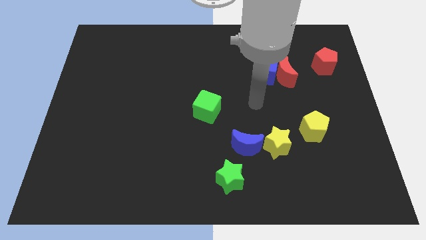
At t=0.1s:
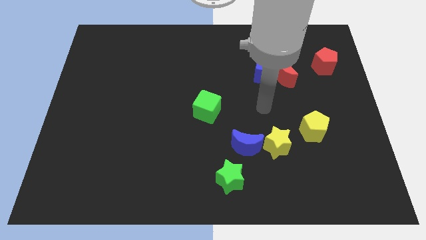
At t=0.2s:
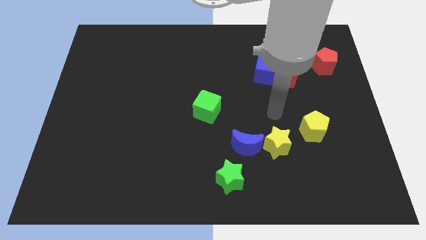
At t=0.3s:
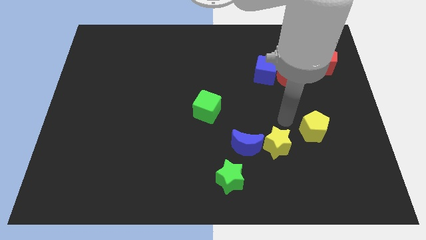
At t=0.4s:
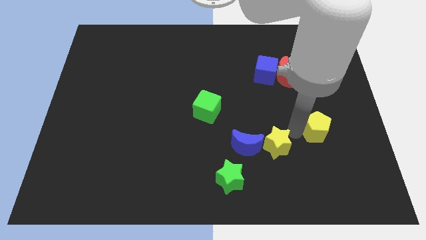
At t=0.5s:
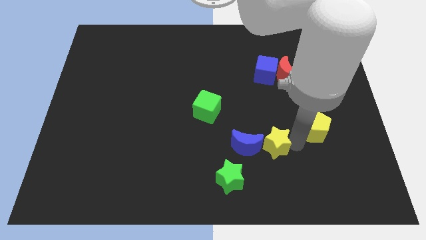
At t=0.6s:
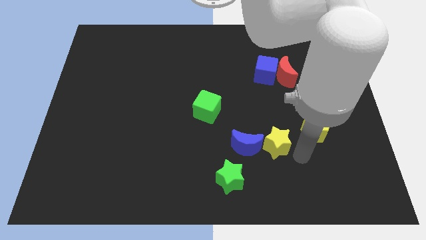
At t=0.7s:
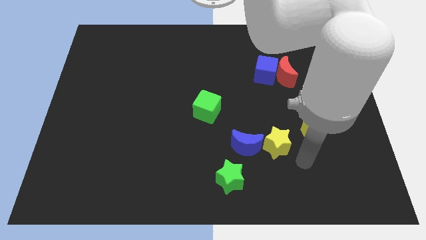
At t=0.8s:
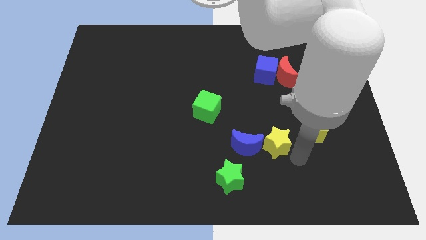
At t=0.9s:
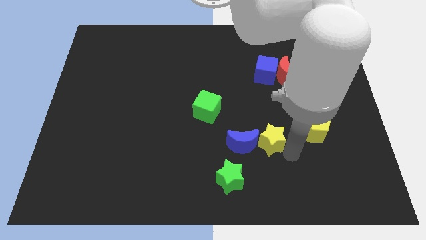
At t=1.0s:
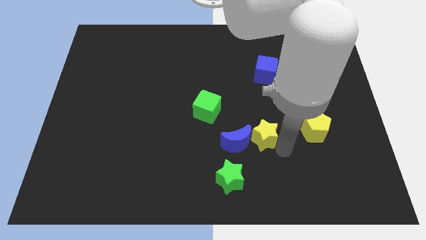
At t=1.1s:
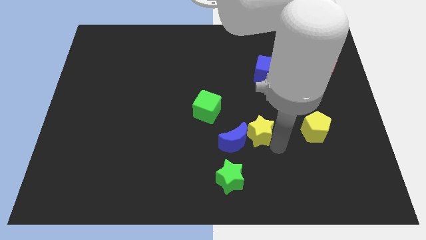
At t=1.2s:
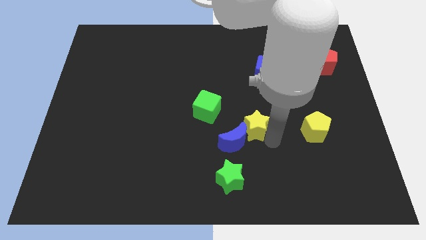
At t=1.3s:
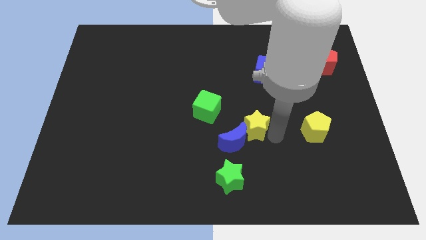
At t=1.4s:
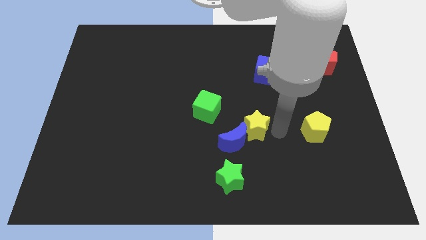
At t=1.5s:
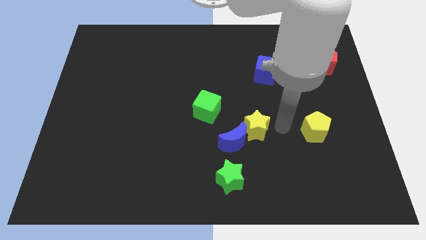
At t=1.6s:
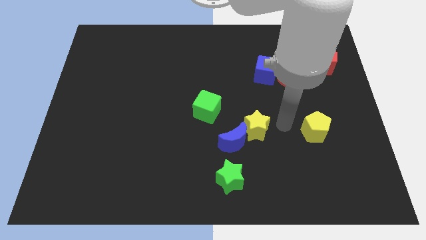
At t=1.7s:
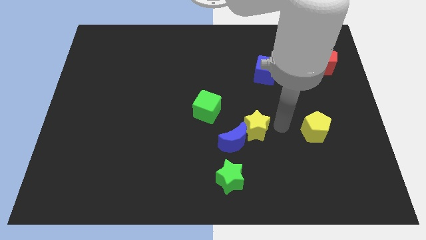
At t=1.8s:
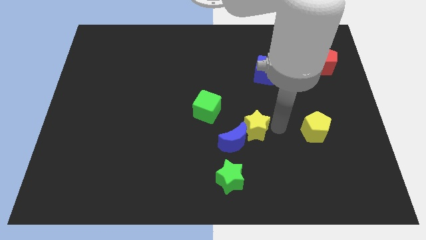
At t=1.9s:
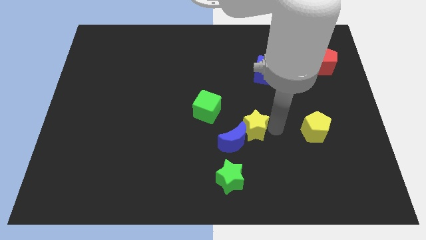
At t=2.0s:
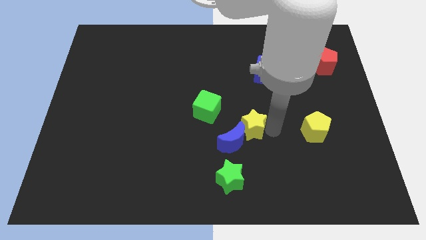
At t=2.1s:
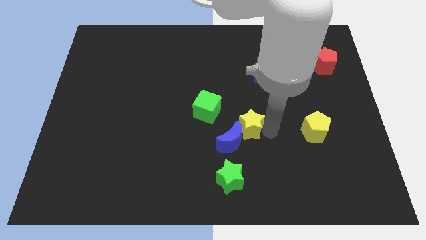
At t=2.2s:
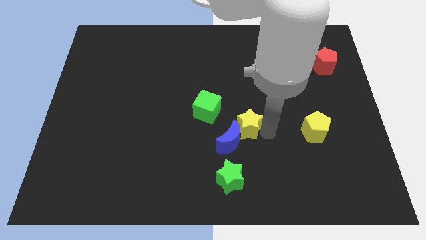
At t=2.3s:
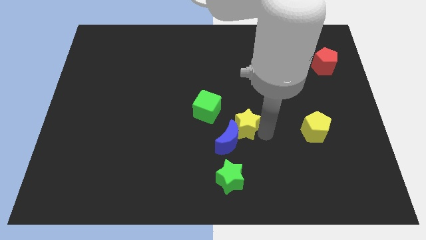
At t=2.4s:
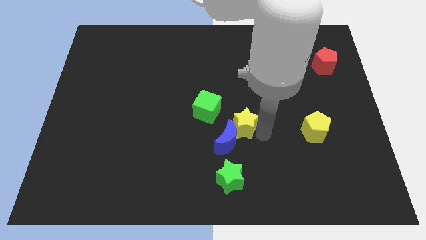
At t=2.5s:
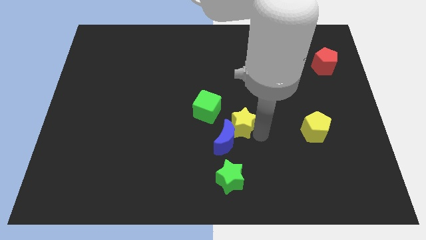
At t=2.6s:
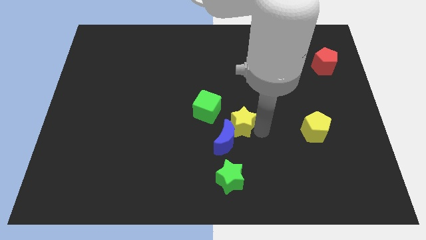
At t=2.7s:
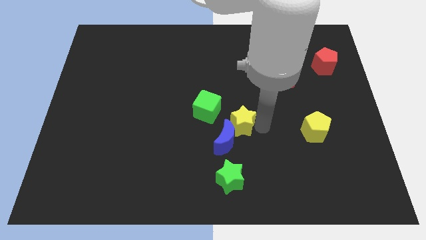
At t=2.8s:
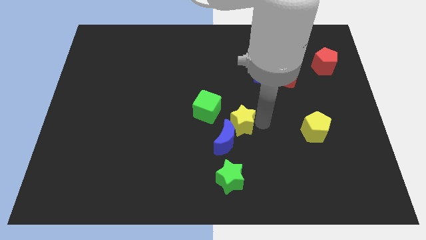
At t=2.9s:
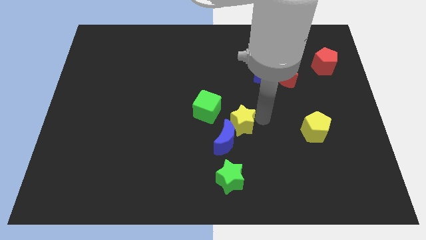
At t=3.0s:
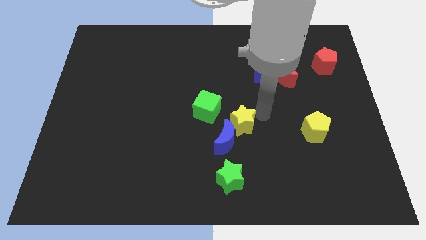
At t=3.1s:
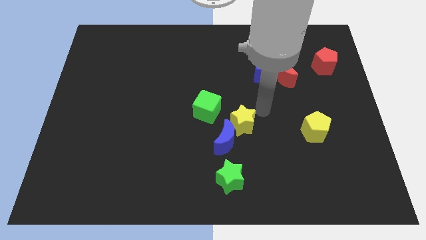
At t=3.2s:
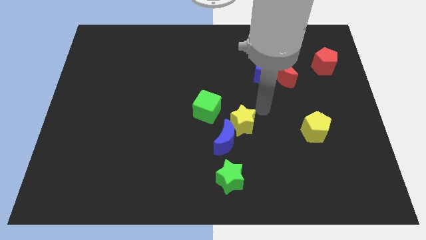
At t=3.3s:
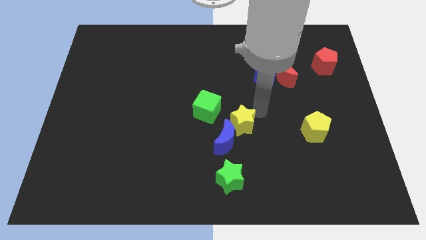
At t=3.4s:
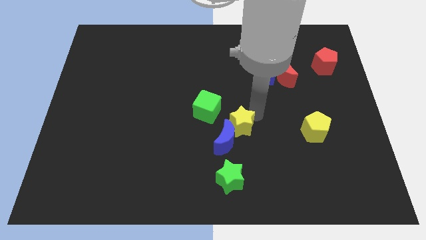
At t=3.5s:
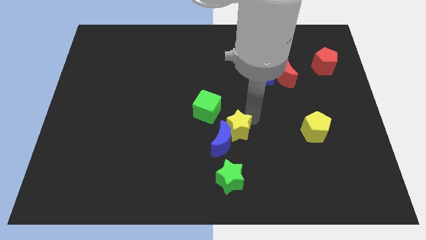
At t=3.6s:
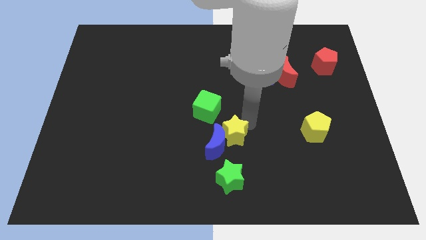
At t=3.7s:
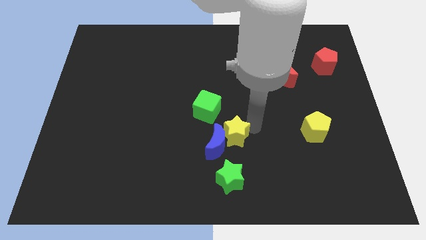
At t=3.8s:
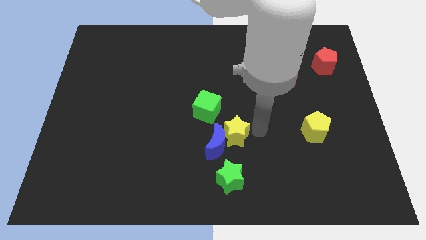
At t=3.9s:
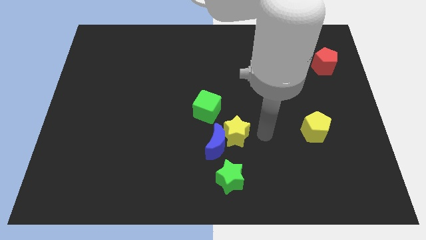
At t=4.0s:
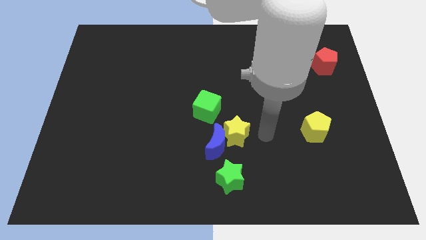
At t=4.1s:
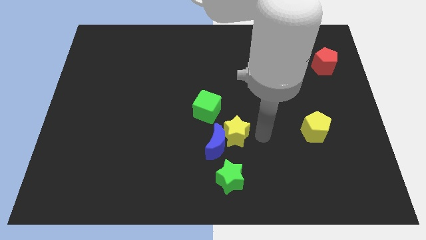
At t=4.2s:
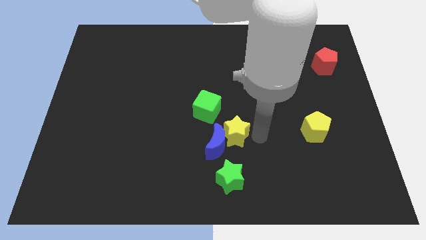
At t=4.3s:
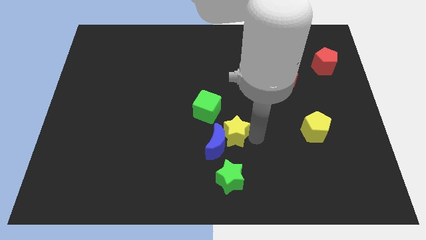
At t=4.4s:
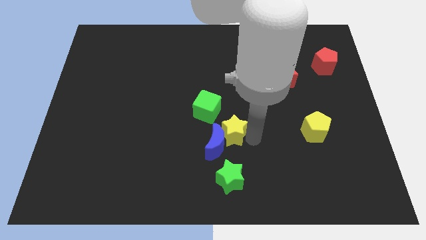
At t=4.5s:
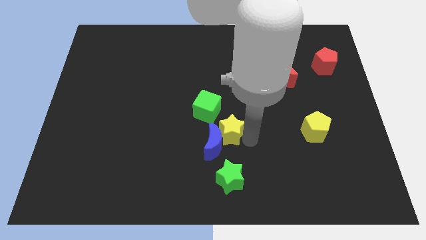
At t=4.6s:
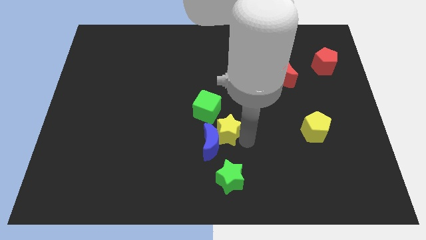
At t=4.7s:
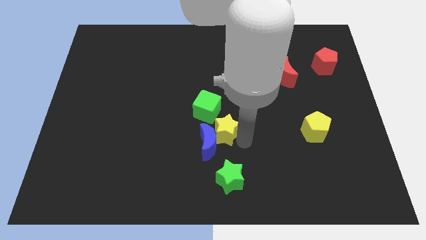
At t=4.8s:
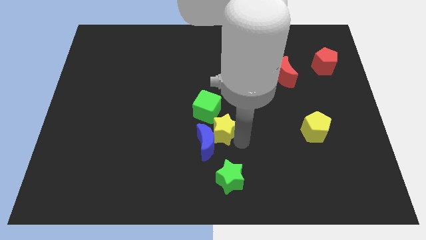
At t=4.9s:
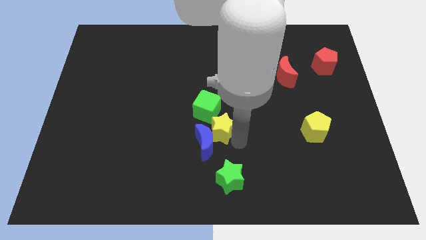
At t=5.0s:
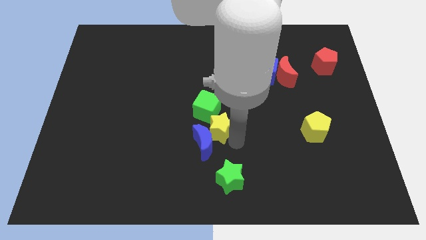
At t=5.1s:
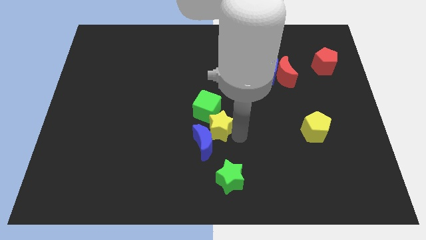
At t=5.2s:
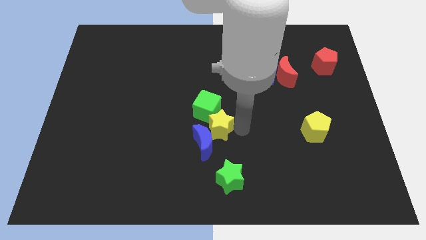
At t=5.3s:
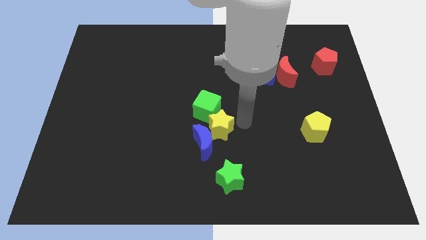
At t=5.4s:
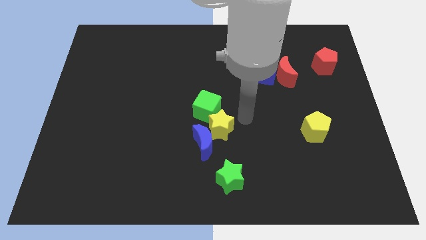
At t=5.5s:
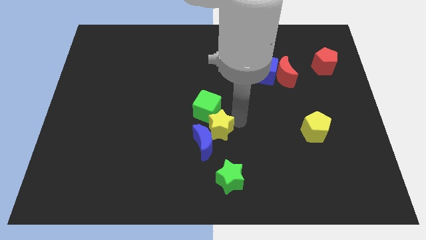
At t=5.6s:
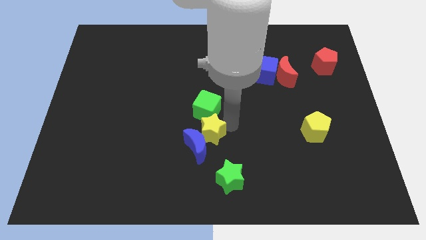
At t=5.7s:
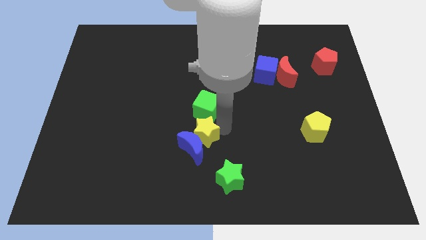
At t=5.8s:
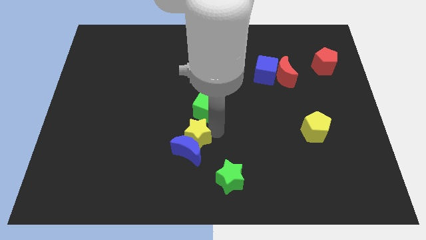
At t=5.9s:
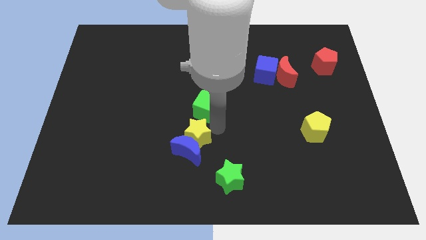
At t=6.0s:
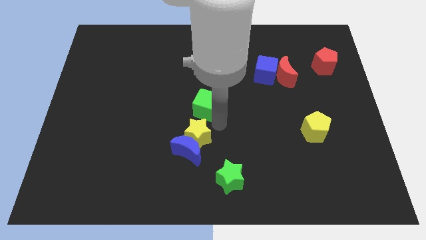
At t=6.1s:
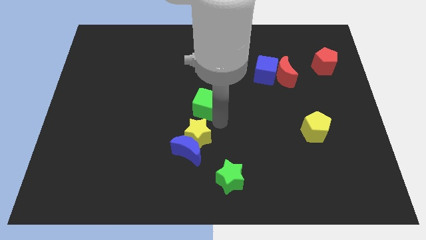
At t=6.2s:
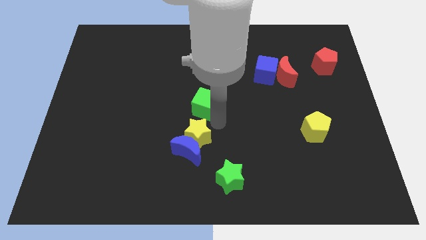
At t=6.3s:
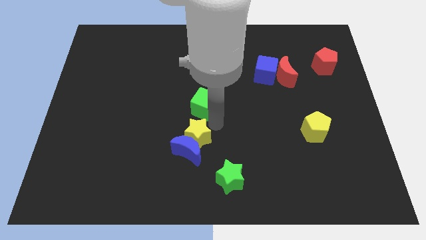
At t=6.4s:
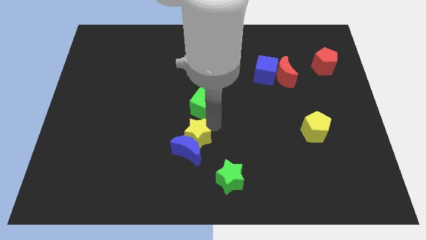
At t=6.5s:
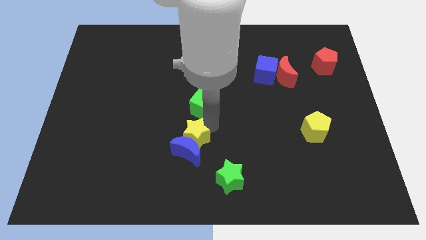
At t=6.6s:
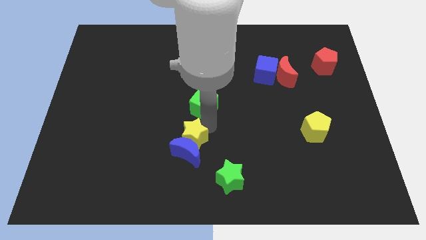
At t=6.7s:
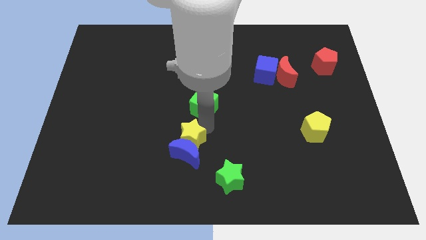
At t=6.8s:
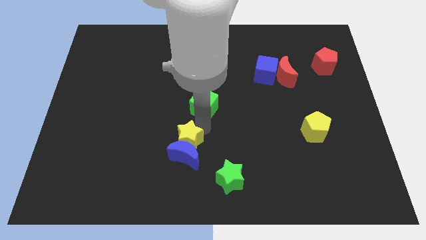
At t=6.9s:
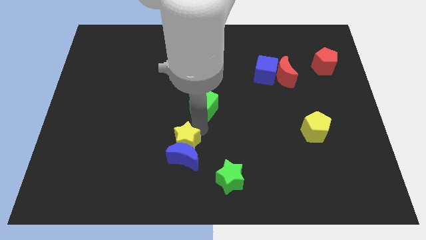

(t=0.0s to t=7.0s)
move the yellow star left

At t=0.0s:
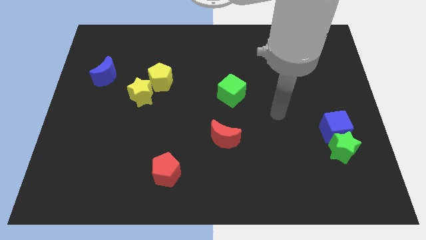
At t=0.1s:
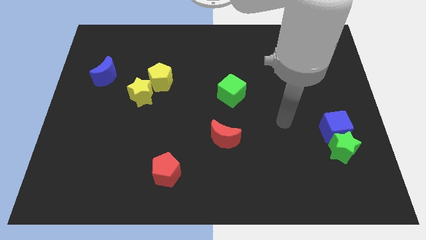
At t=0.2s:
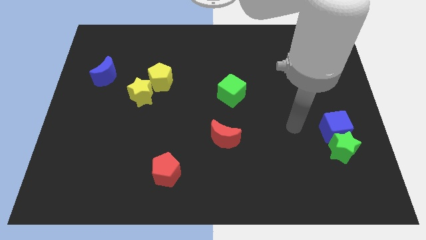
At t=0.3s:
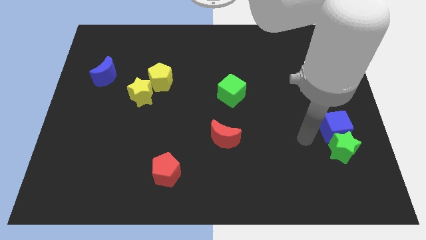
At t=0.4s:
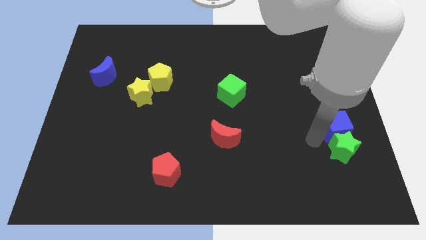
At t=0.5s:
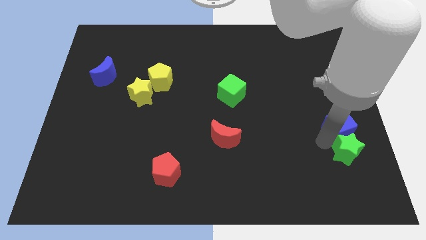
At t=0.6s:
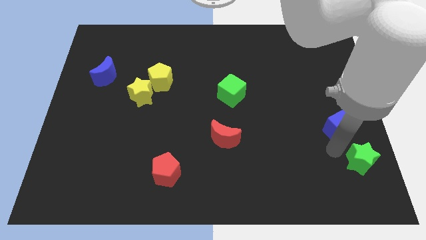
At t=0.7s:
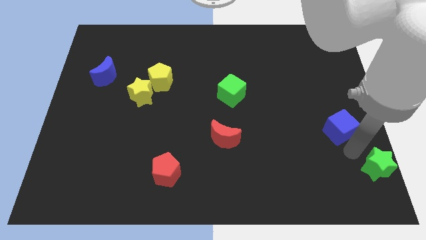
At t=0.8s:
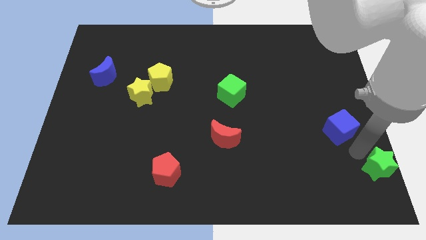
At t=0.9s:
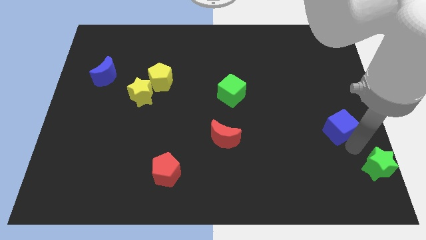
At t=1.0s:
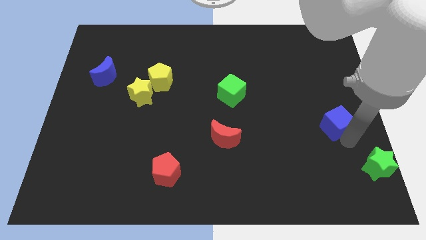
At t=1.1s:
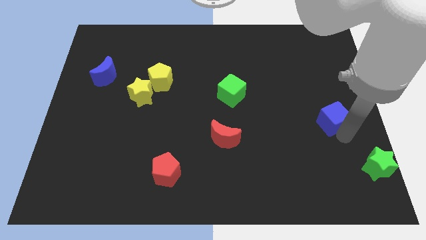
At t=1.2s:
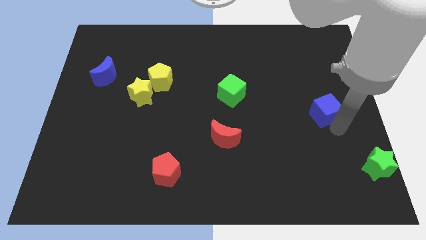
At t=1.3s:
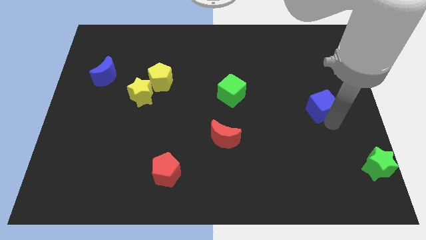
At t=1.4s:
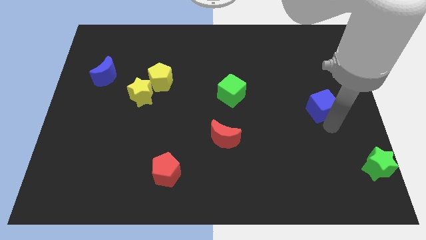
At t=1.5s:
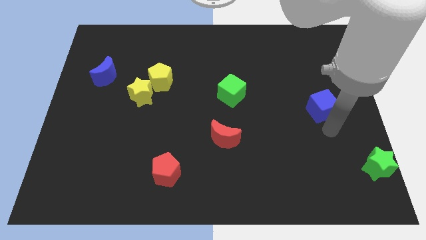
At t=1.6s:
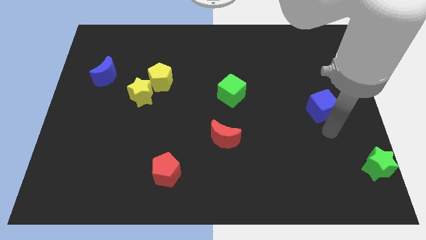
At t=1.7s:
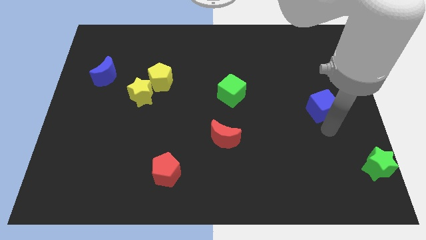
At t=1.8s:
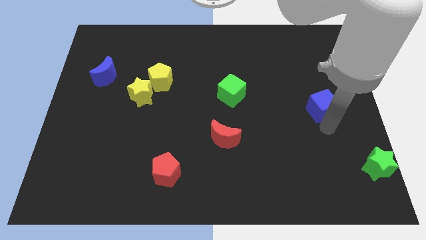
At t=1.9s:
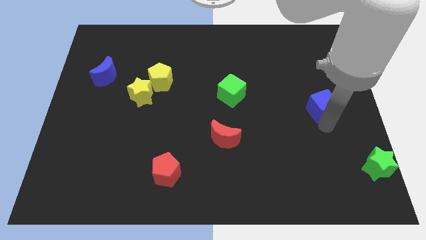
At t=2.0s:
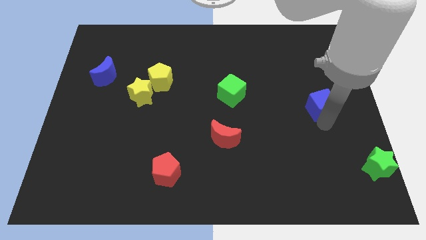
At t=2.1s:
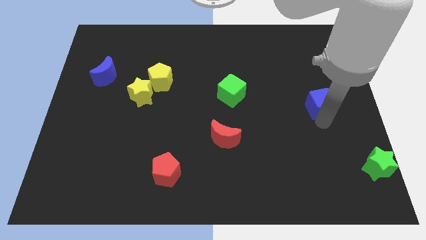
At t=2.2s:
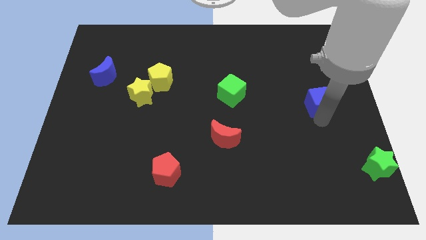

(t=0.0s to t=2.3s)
slide the blue cube a little upwards
